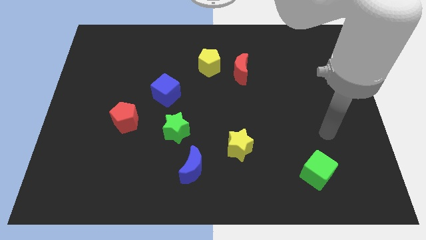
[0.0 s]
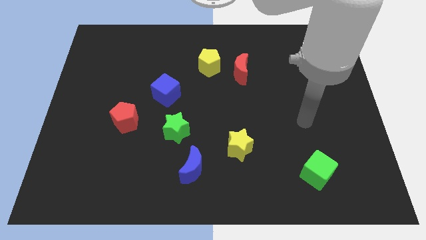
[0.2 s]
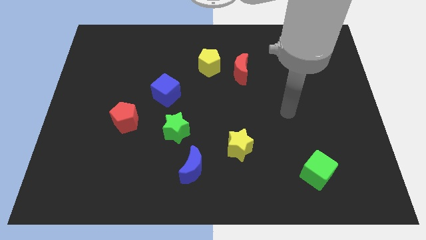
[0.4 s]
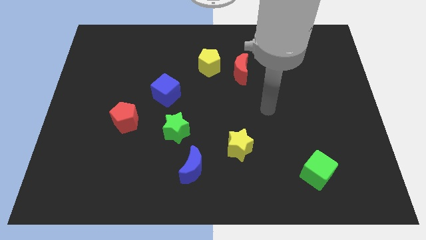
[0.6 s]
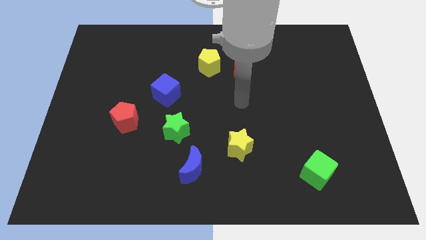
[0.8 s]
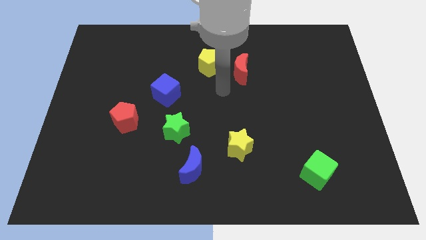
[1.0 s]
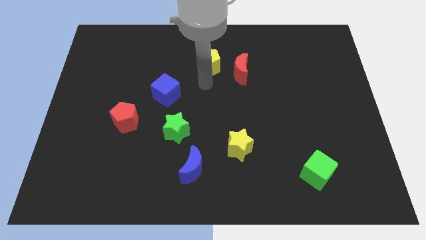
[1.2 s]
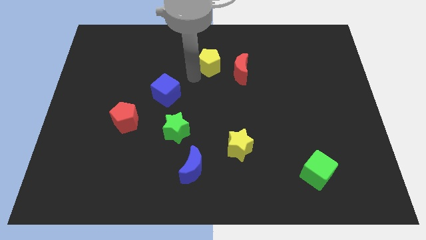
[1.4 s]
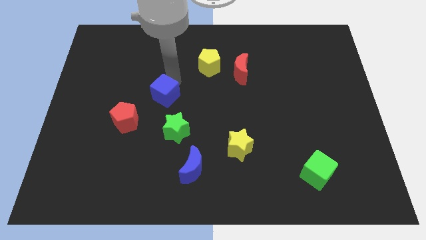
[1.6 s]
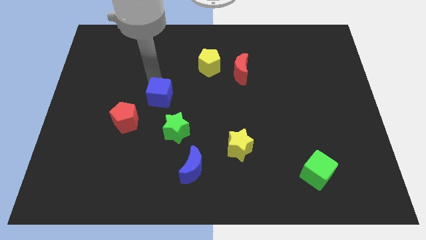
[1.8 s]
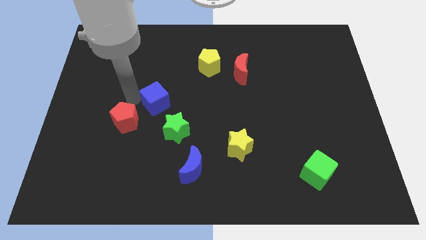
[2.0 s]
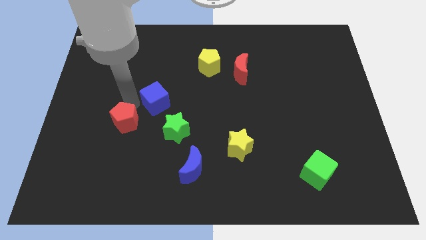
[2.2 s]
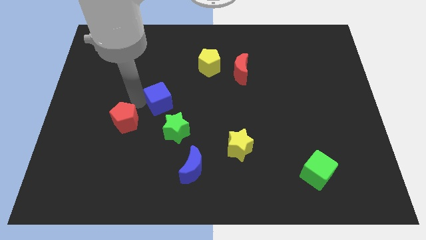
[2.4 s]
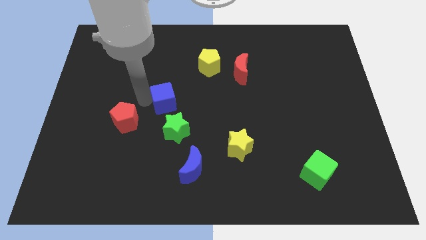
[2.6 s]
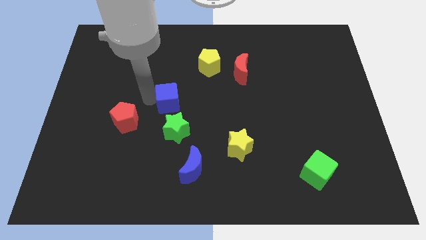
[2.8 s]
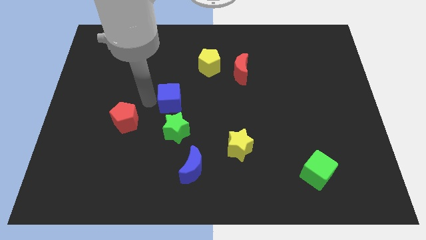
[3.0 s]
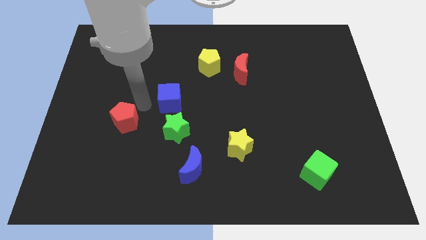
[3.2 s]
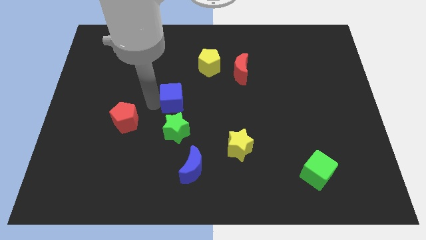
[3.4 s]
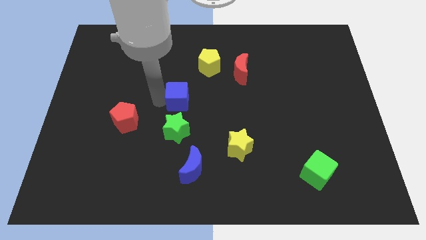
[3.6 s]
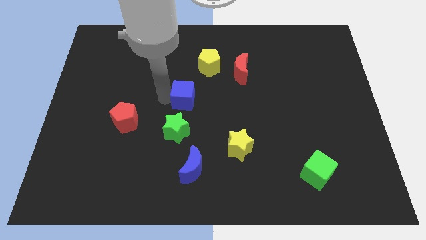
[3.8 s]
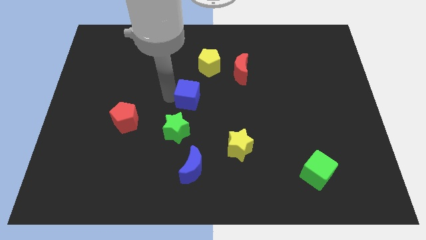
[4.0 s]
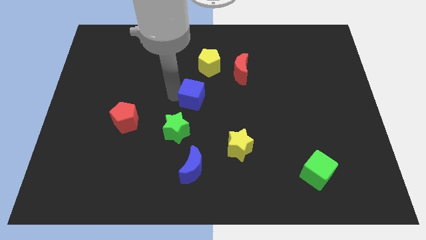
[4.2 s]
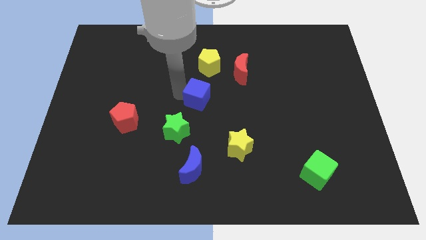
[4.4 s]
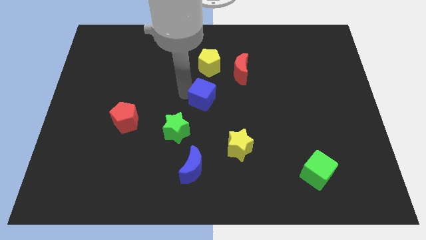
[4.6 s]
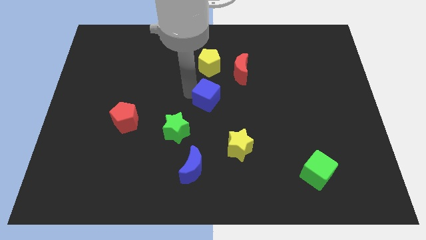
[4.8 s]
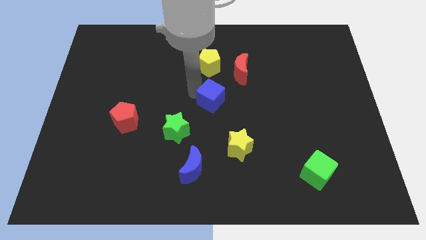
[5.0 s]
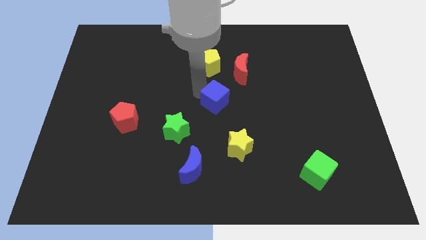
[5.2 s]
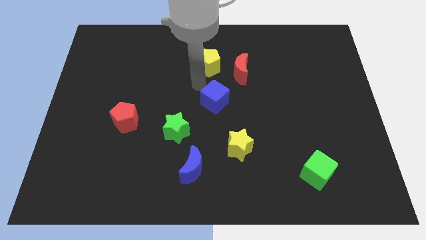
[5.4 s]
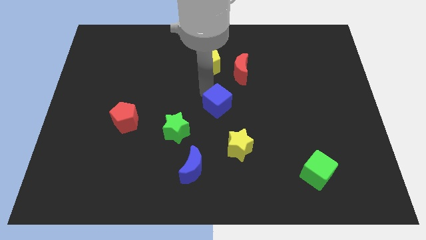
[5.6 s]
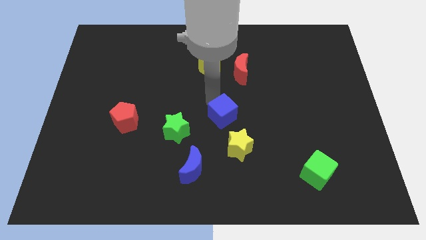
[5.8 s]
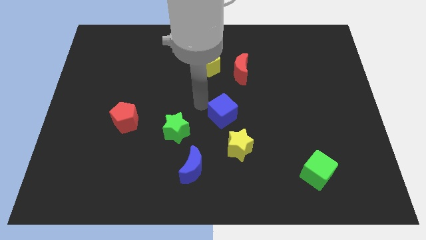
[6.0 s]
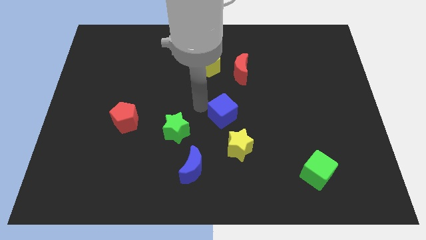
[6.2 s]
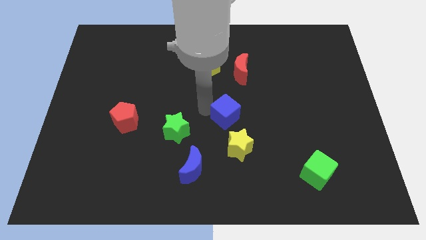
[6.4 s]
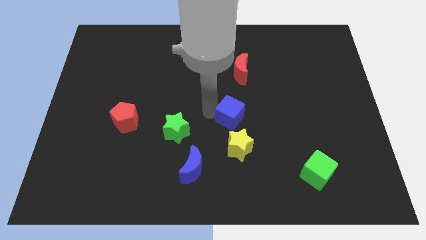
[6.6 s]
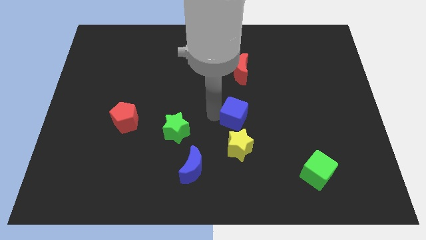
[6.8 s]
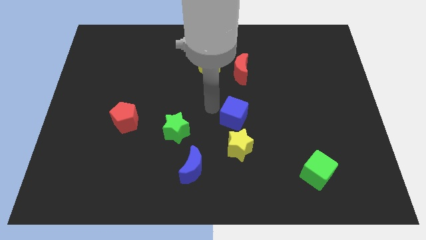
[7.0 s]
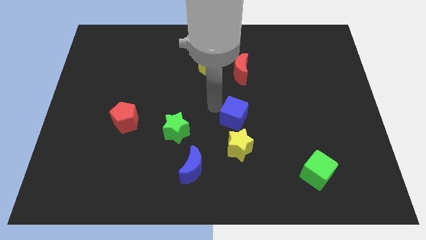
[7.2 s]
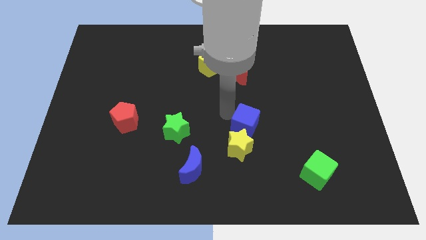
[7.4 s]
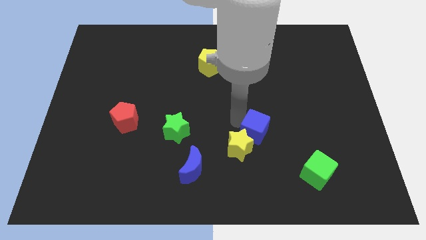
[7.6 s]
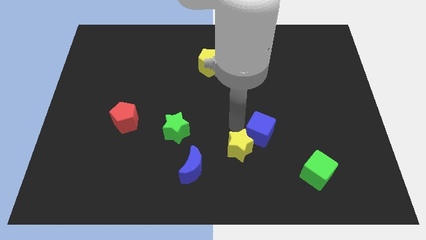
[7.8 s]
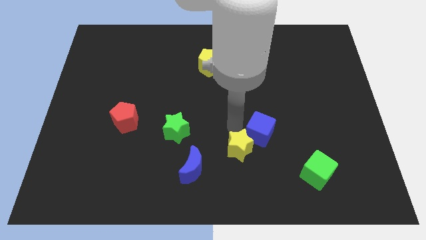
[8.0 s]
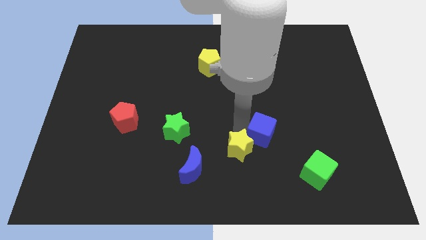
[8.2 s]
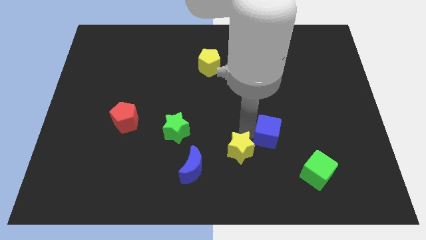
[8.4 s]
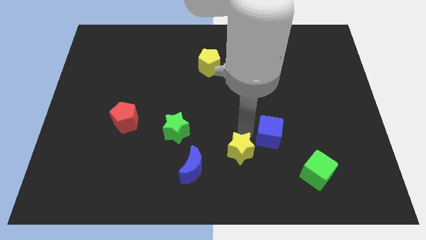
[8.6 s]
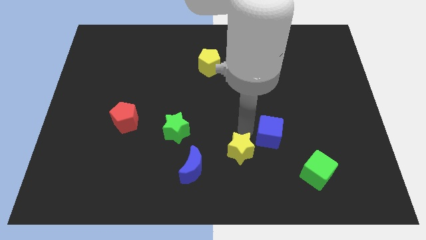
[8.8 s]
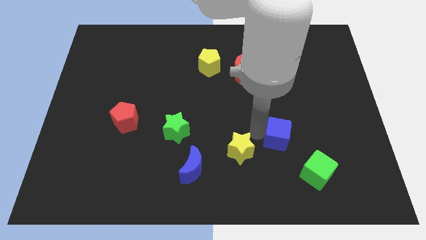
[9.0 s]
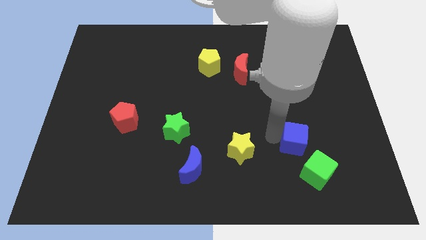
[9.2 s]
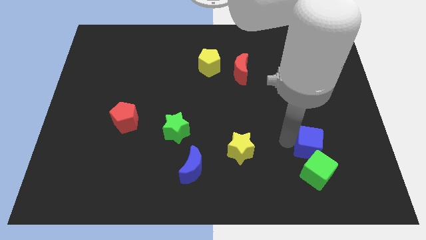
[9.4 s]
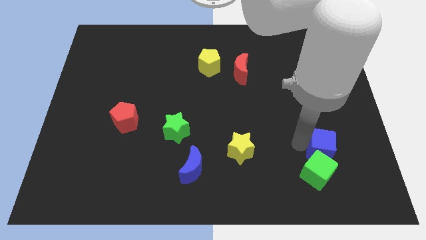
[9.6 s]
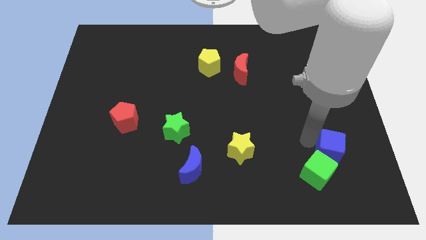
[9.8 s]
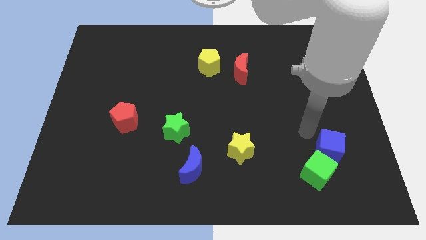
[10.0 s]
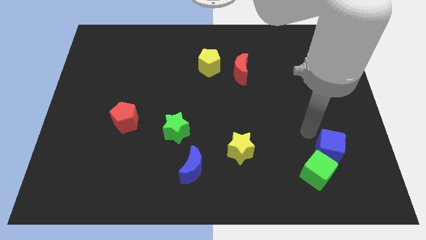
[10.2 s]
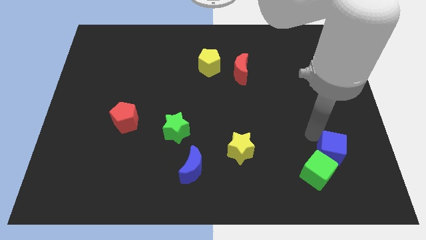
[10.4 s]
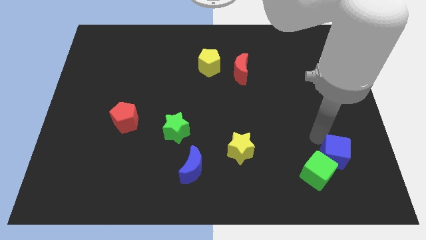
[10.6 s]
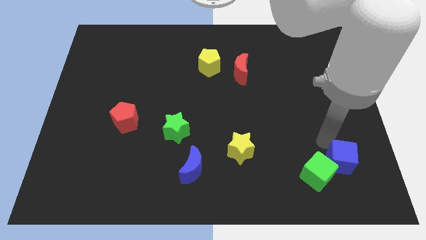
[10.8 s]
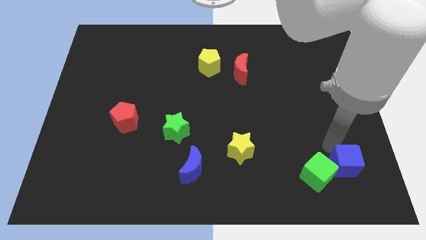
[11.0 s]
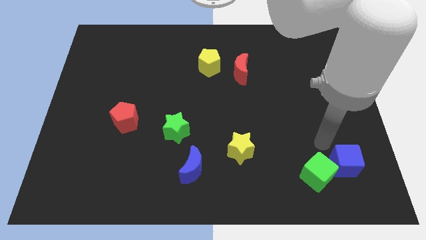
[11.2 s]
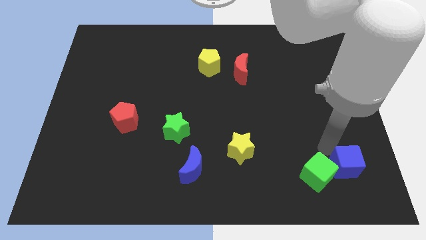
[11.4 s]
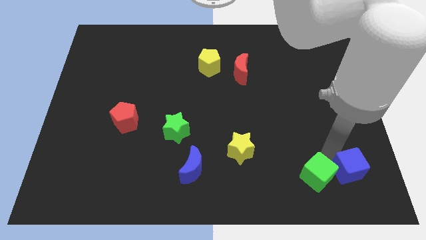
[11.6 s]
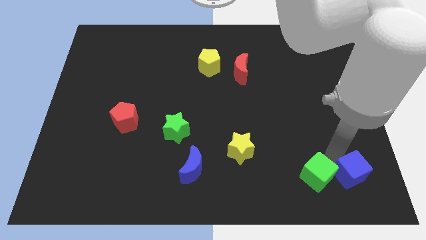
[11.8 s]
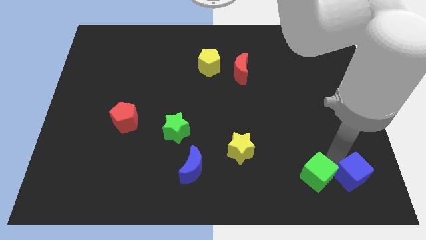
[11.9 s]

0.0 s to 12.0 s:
move the blue cube to the bottom right of the board
